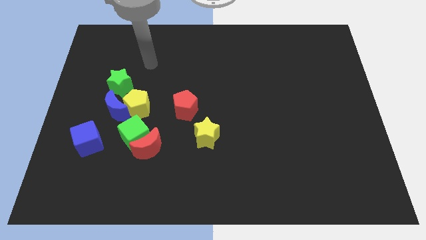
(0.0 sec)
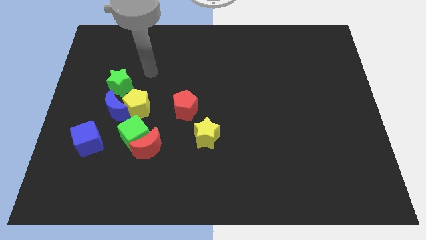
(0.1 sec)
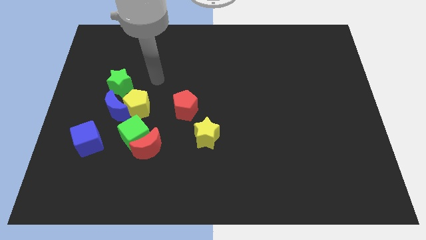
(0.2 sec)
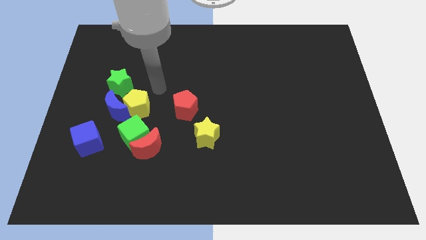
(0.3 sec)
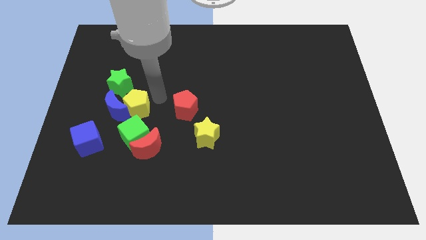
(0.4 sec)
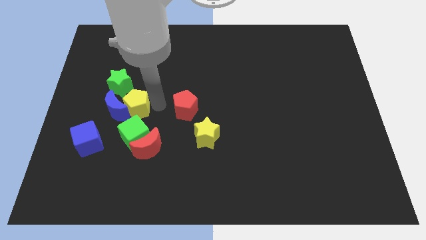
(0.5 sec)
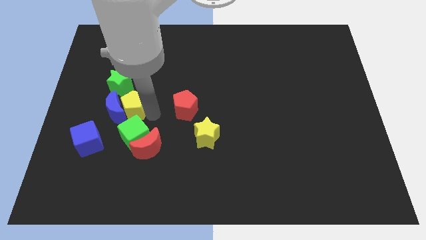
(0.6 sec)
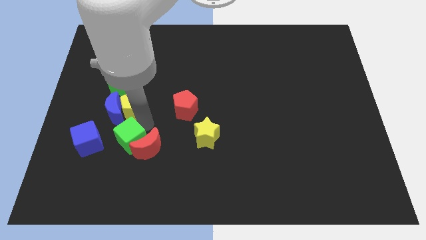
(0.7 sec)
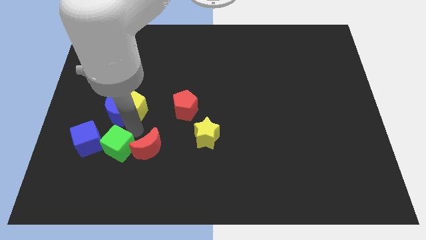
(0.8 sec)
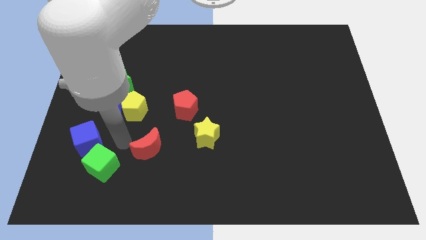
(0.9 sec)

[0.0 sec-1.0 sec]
pull the red moon apart from the green cube

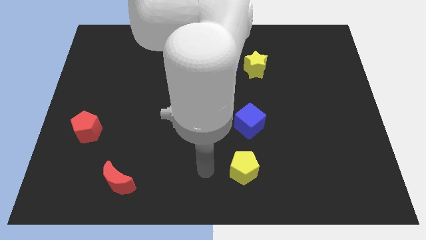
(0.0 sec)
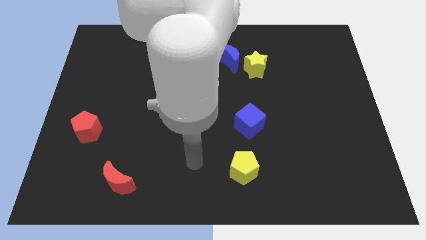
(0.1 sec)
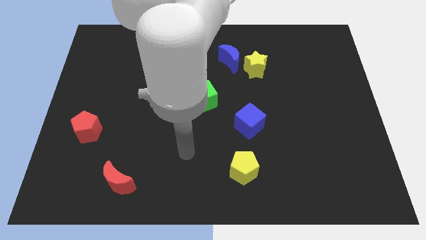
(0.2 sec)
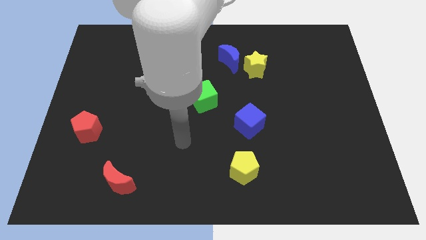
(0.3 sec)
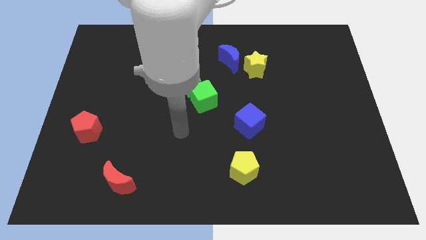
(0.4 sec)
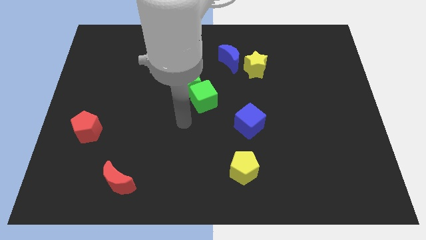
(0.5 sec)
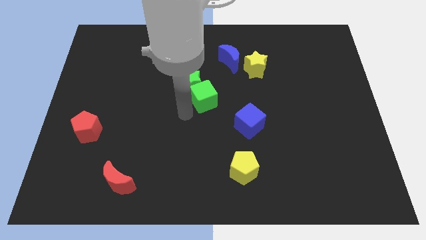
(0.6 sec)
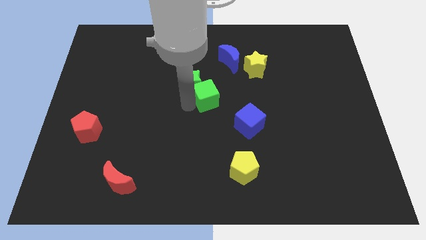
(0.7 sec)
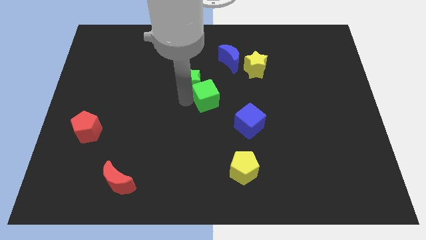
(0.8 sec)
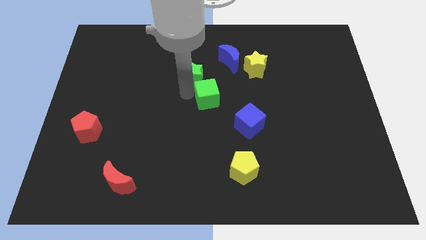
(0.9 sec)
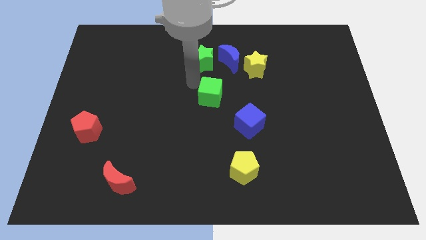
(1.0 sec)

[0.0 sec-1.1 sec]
pull the green cube apart from the green star

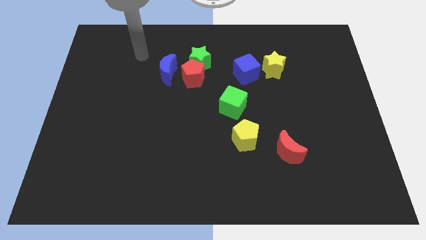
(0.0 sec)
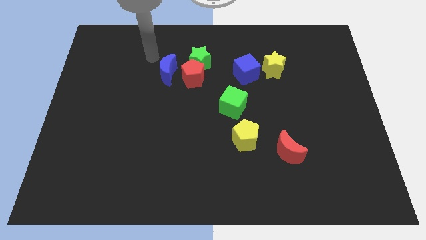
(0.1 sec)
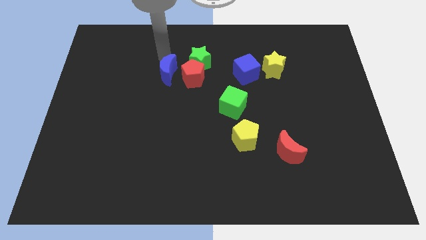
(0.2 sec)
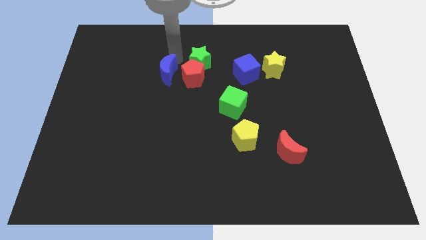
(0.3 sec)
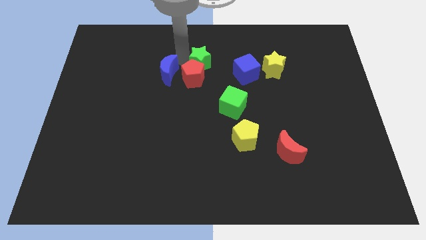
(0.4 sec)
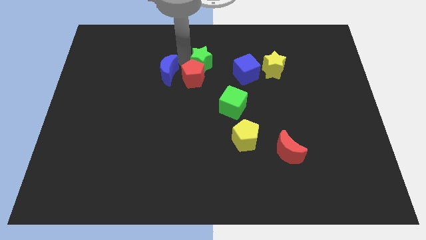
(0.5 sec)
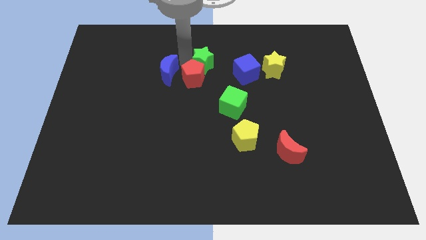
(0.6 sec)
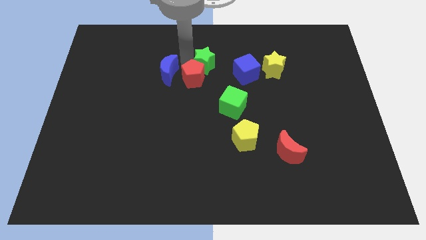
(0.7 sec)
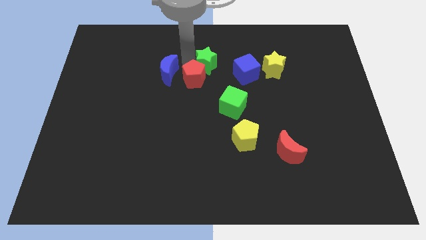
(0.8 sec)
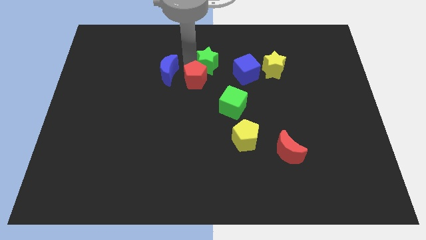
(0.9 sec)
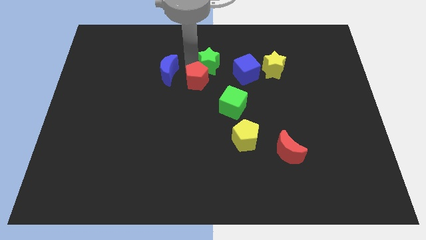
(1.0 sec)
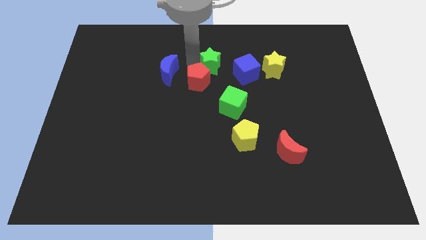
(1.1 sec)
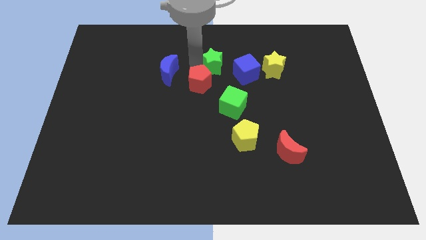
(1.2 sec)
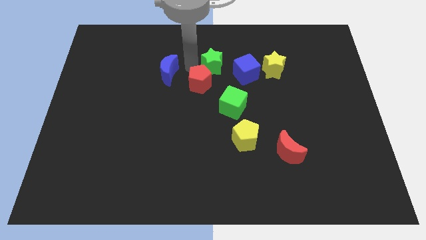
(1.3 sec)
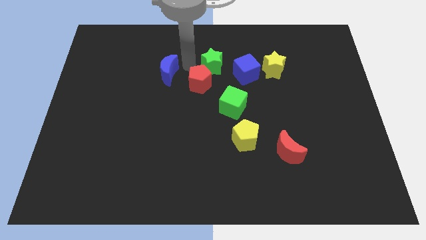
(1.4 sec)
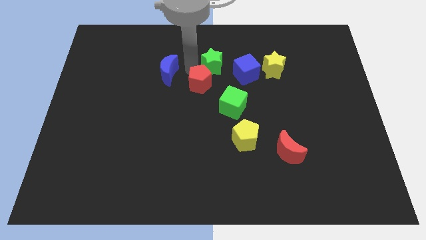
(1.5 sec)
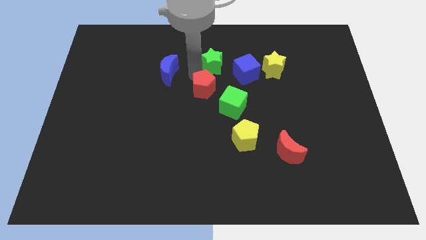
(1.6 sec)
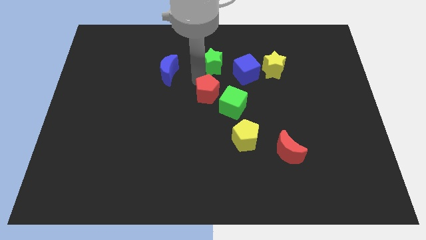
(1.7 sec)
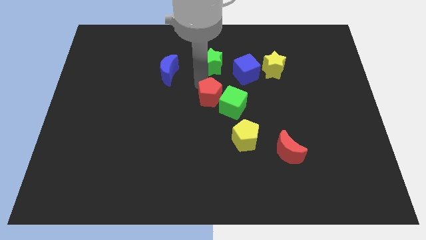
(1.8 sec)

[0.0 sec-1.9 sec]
move the red pentagon away from the green star and blue moon

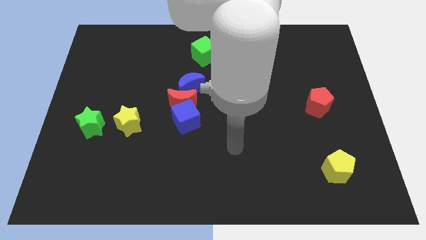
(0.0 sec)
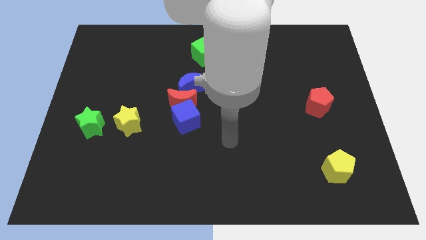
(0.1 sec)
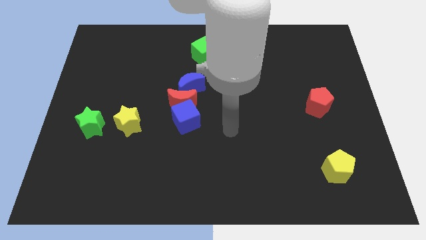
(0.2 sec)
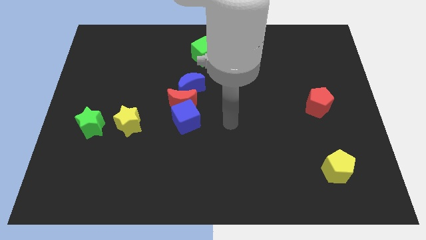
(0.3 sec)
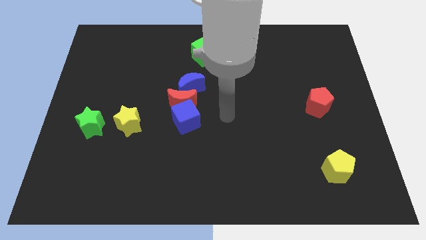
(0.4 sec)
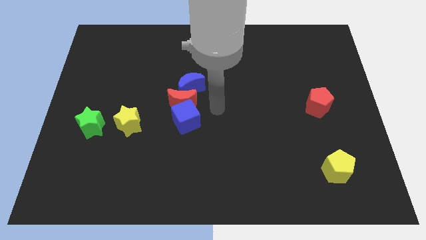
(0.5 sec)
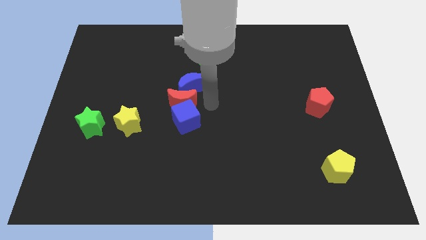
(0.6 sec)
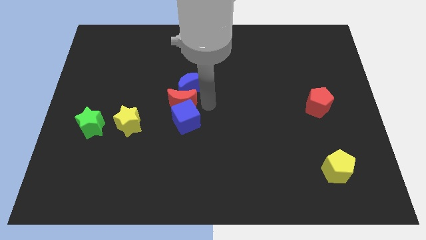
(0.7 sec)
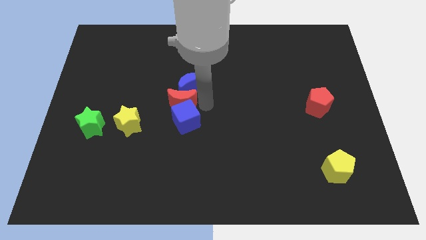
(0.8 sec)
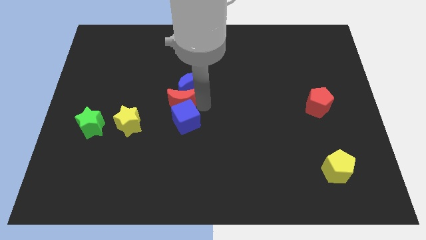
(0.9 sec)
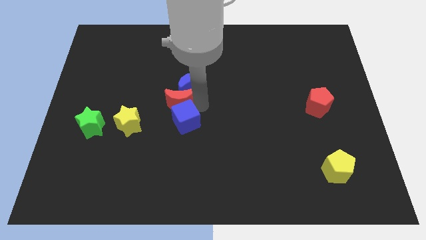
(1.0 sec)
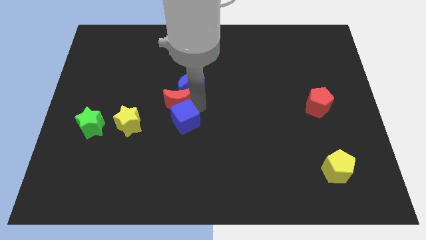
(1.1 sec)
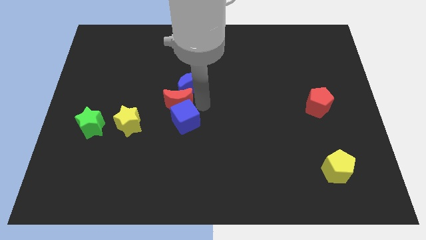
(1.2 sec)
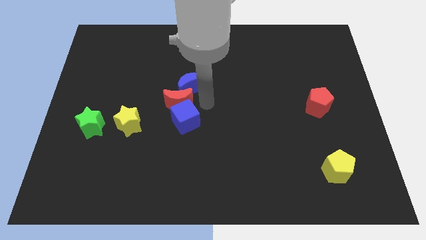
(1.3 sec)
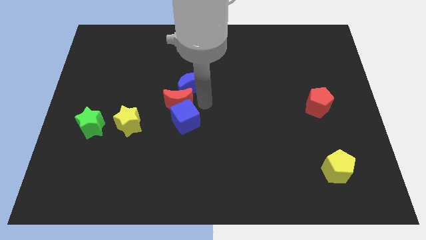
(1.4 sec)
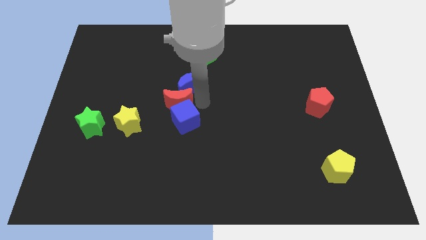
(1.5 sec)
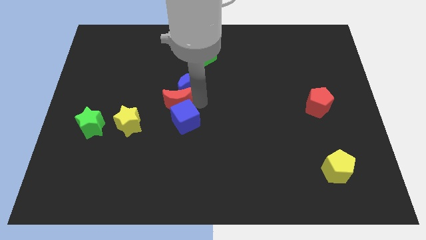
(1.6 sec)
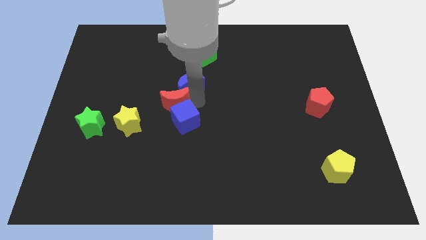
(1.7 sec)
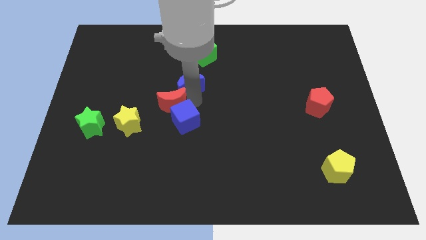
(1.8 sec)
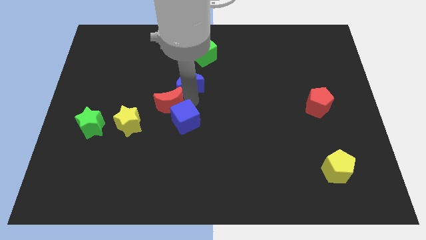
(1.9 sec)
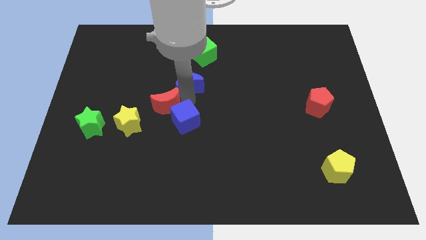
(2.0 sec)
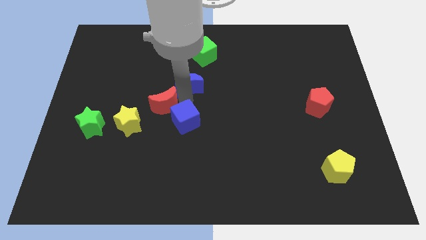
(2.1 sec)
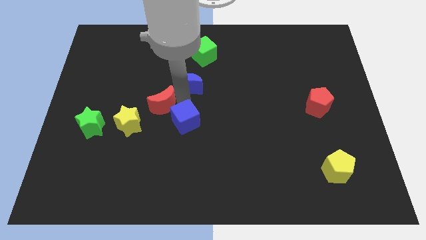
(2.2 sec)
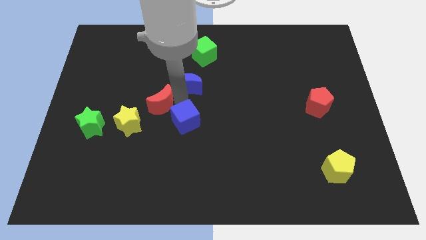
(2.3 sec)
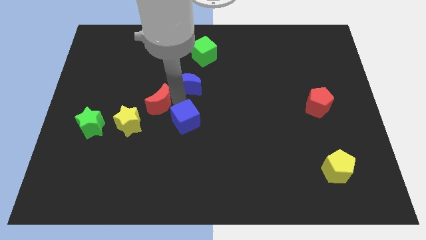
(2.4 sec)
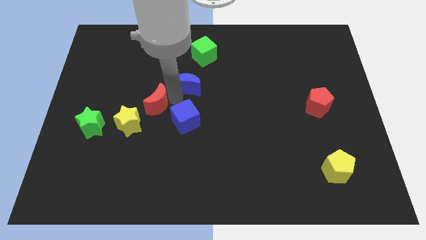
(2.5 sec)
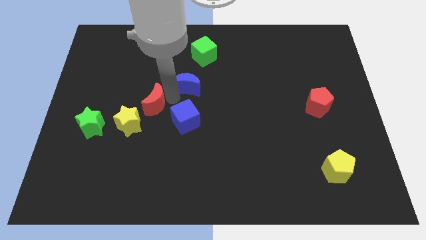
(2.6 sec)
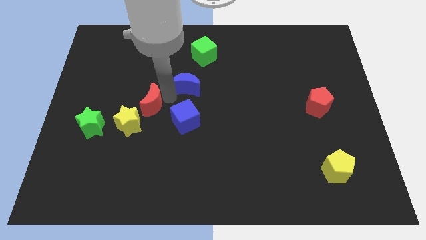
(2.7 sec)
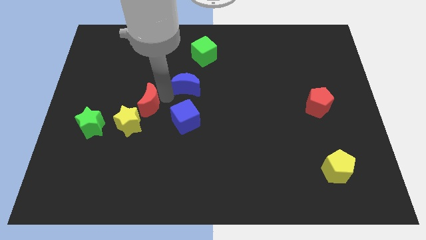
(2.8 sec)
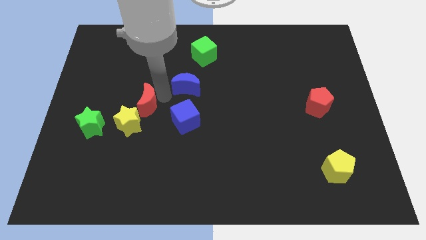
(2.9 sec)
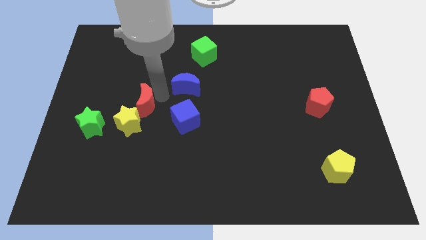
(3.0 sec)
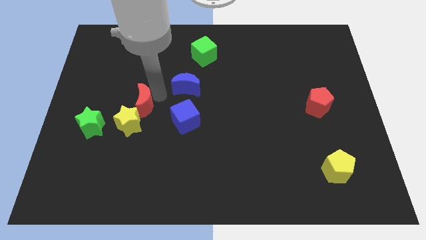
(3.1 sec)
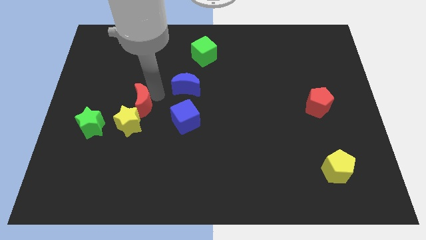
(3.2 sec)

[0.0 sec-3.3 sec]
move the red moon away from the blue cube and blue moon

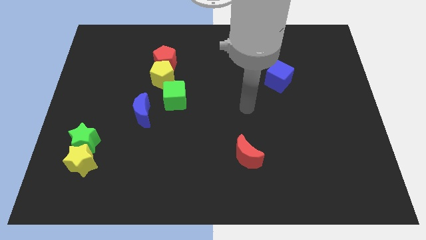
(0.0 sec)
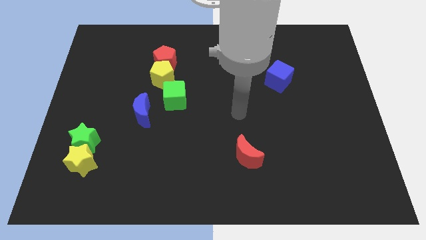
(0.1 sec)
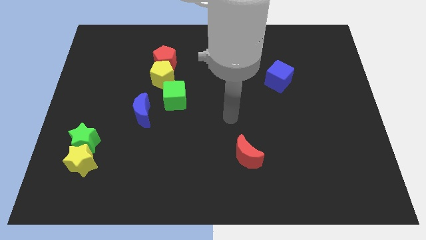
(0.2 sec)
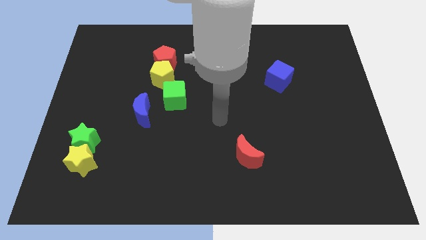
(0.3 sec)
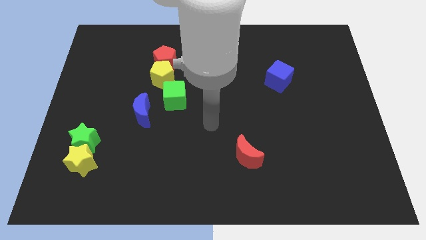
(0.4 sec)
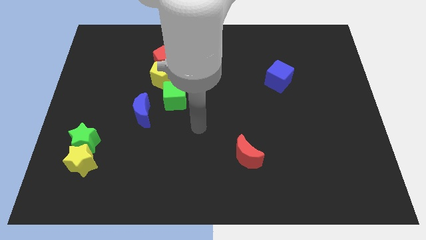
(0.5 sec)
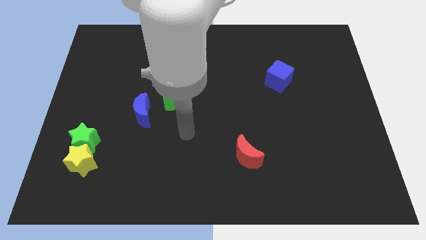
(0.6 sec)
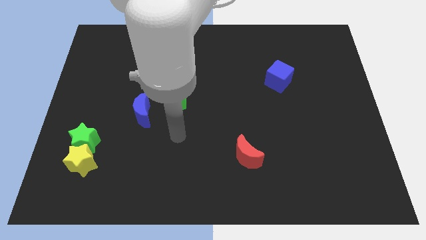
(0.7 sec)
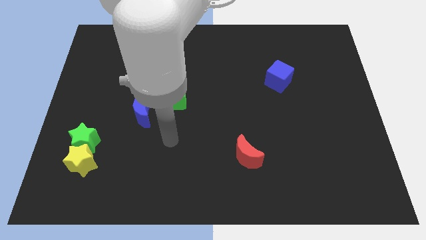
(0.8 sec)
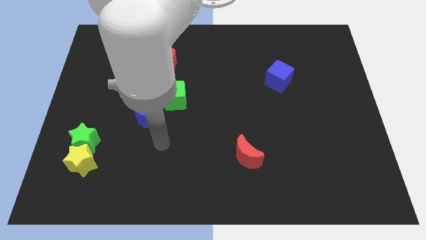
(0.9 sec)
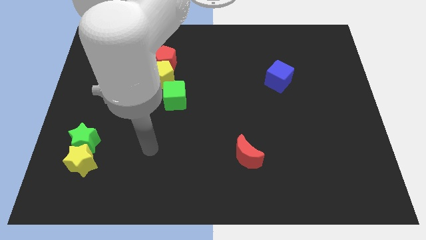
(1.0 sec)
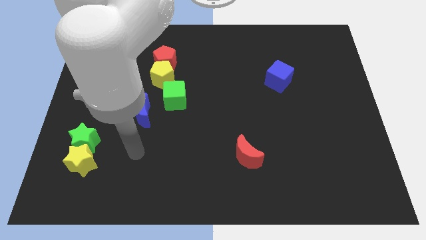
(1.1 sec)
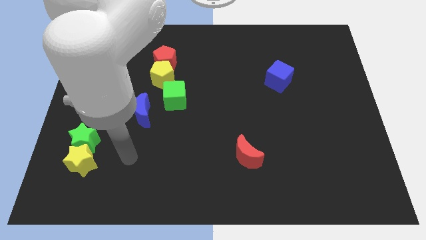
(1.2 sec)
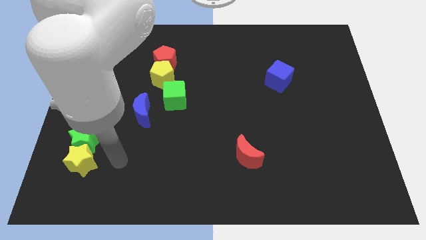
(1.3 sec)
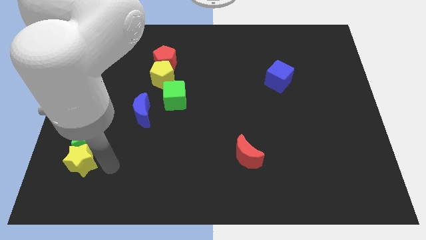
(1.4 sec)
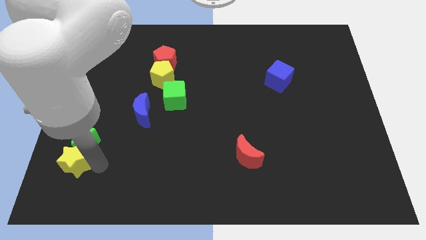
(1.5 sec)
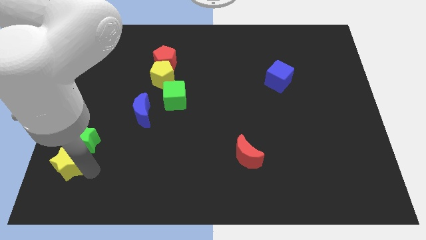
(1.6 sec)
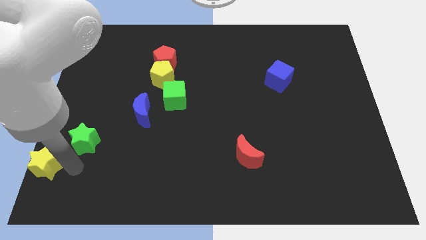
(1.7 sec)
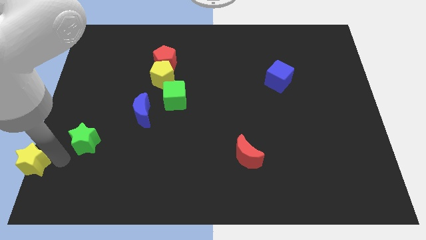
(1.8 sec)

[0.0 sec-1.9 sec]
separate the green star from the yellow star
